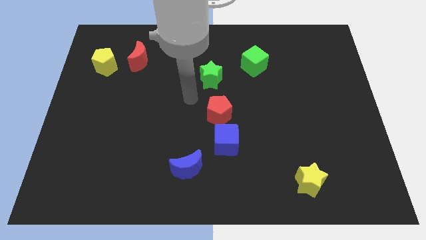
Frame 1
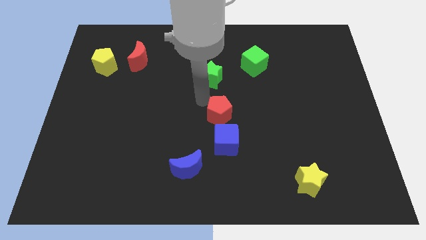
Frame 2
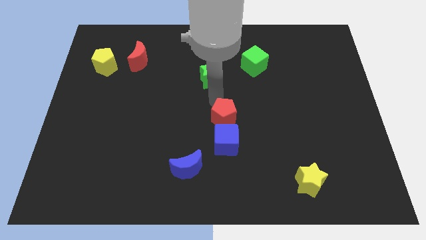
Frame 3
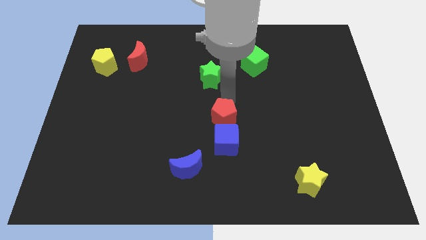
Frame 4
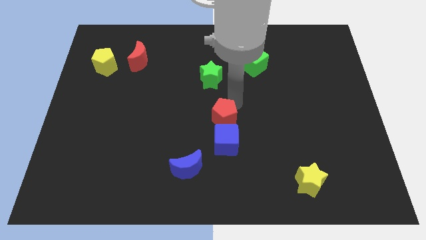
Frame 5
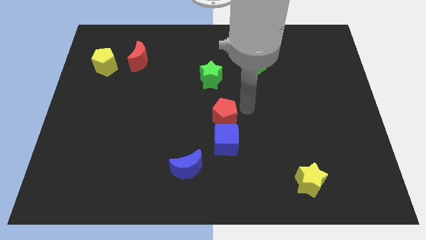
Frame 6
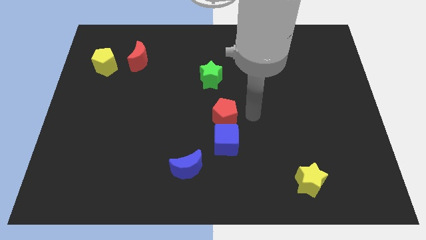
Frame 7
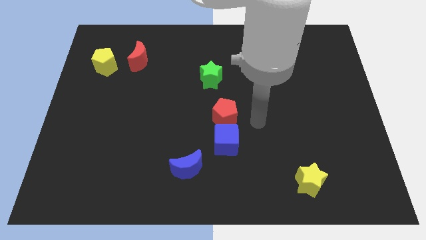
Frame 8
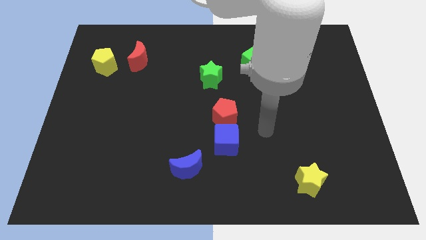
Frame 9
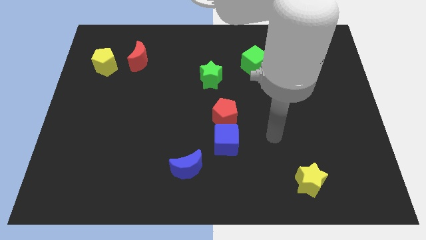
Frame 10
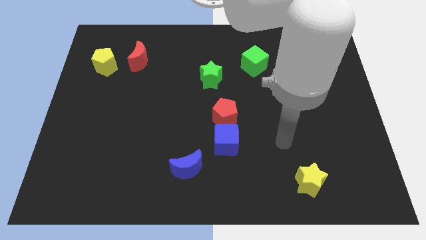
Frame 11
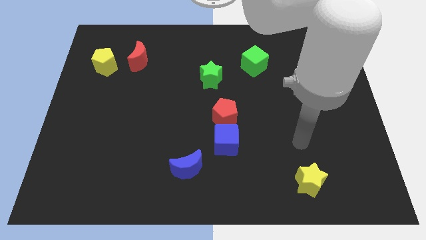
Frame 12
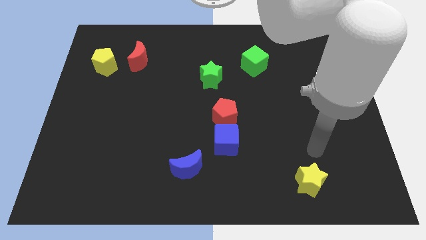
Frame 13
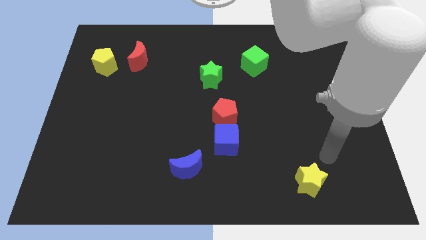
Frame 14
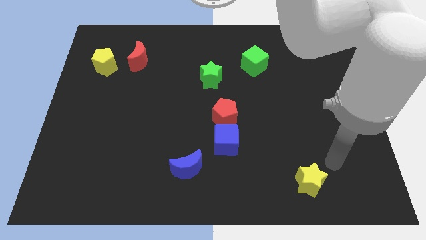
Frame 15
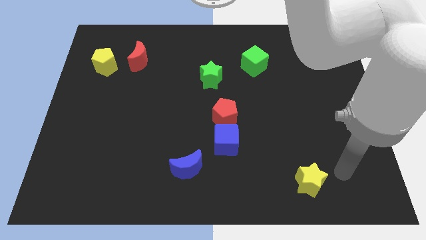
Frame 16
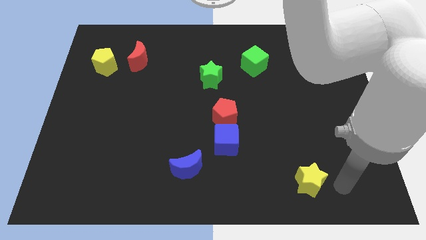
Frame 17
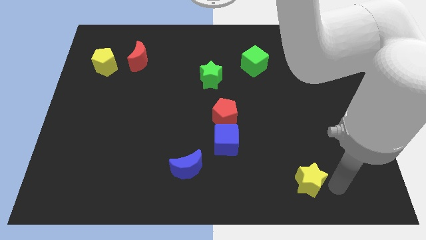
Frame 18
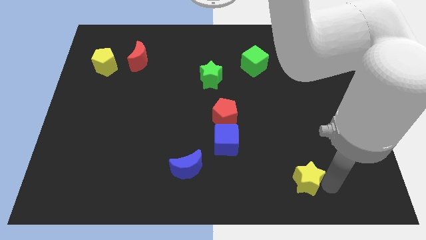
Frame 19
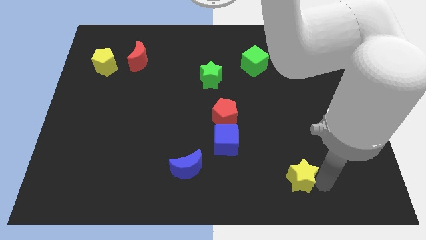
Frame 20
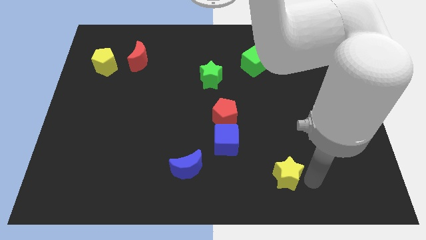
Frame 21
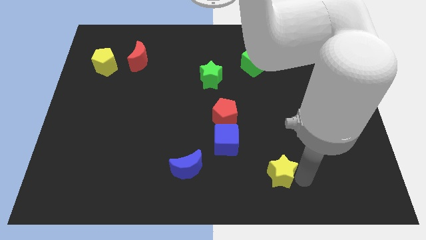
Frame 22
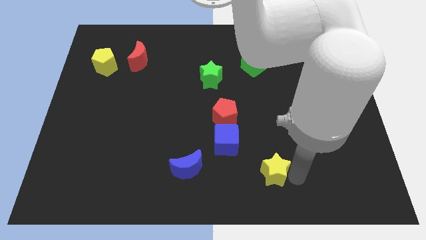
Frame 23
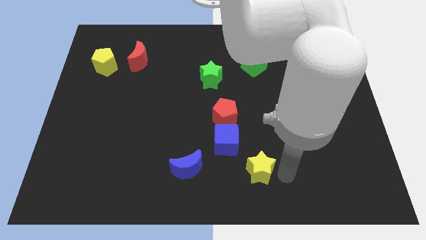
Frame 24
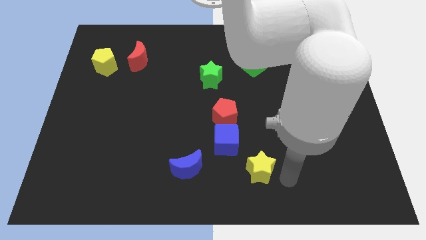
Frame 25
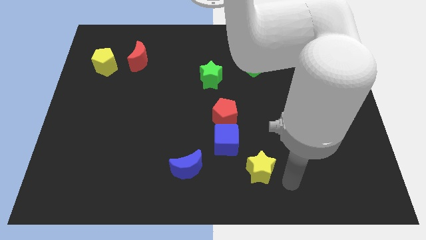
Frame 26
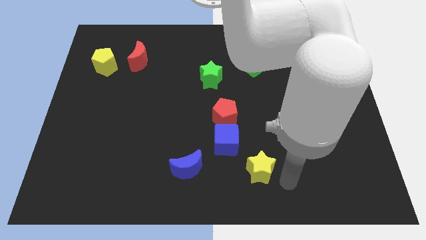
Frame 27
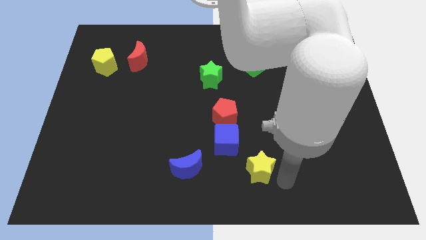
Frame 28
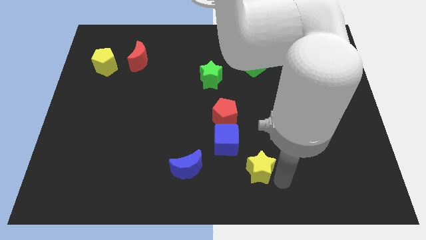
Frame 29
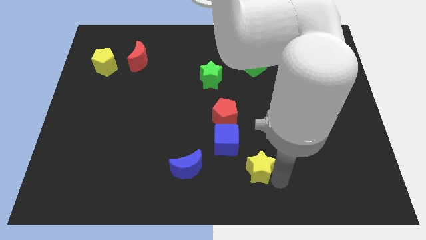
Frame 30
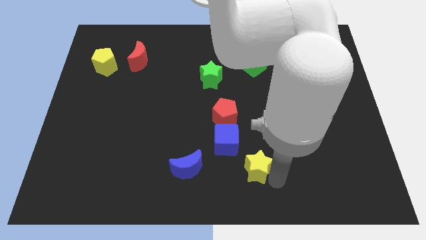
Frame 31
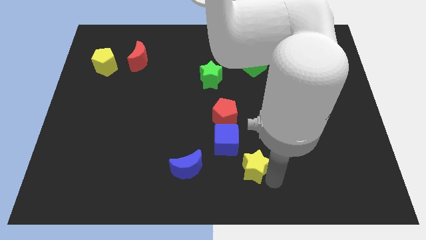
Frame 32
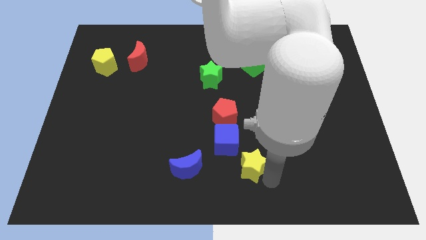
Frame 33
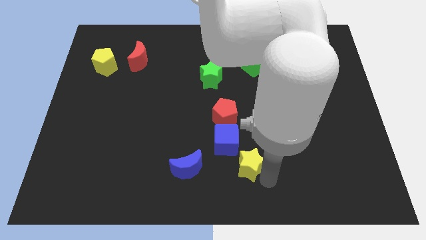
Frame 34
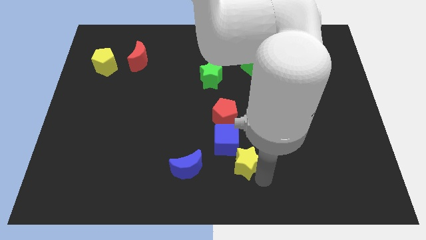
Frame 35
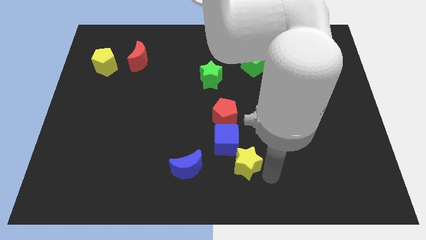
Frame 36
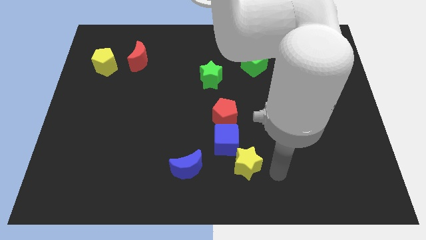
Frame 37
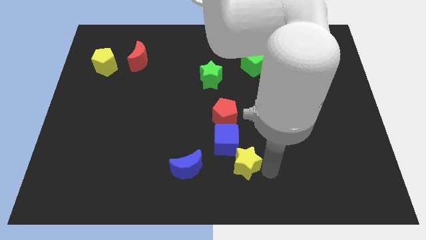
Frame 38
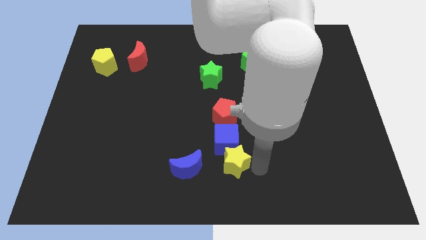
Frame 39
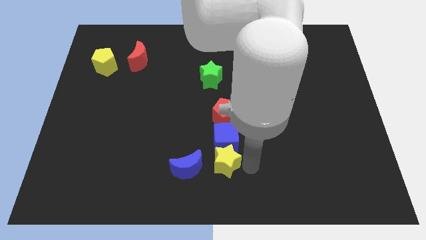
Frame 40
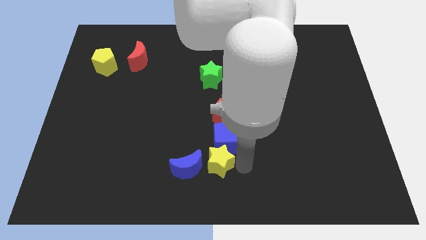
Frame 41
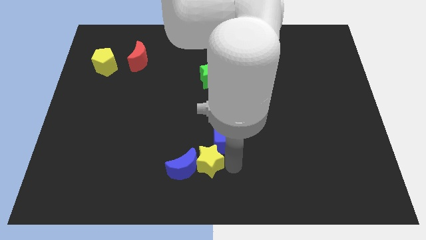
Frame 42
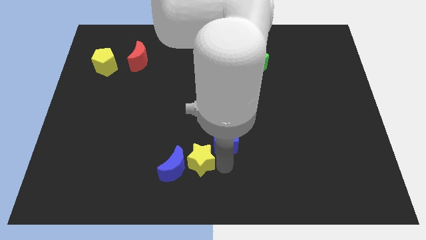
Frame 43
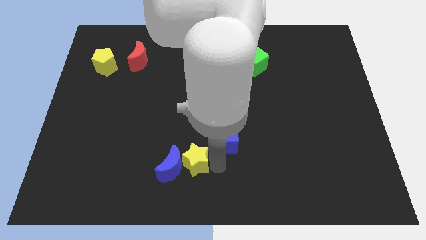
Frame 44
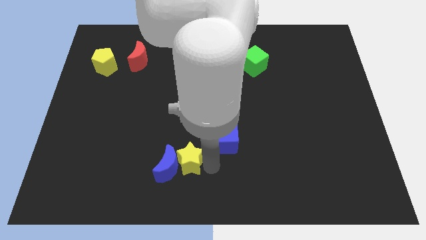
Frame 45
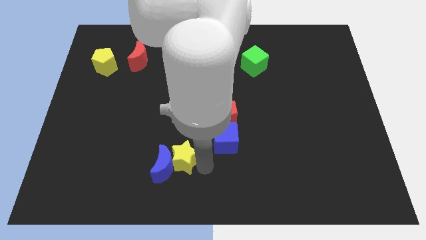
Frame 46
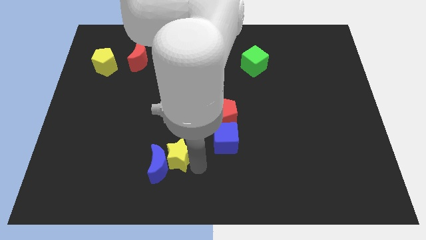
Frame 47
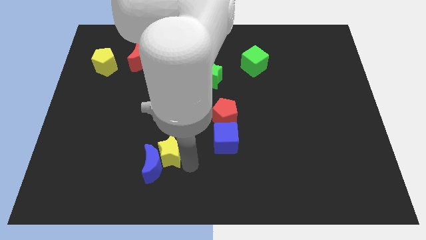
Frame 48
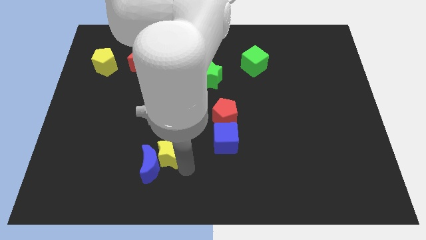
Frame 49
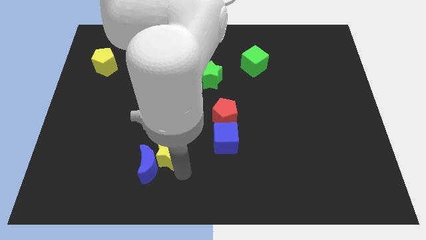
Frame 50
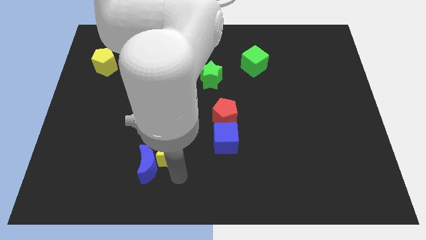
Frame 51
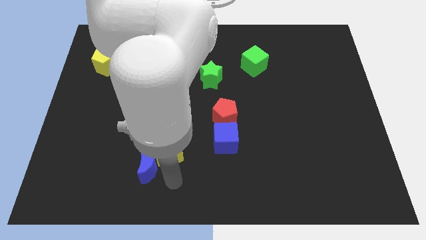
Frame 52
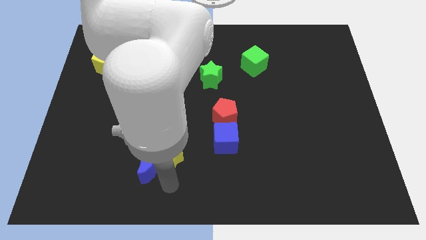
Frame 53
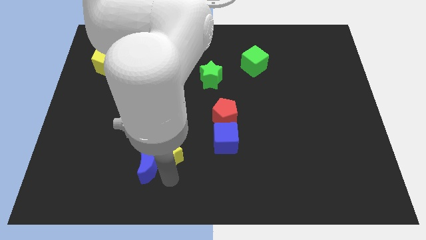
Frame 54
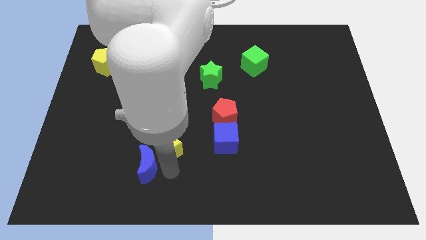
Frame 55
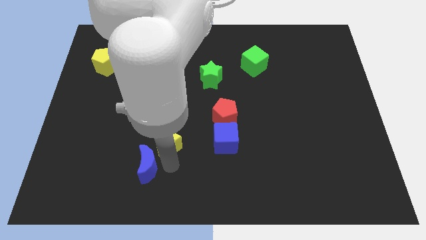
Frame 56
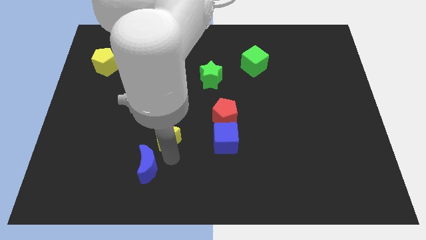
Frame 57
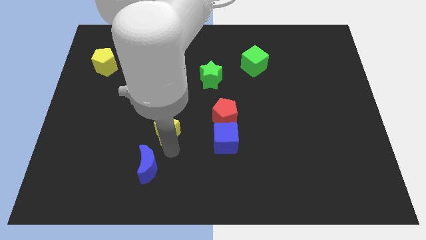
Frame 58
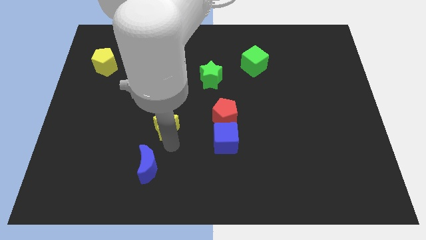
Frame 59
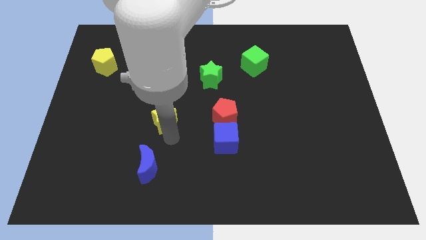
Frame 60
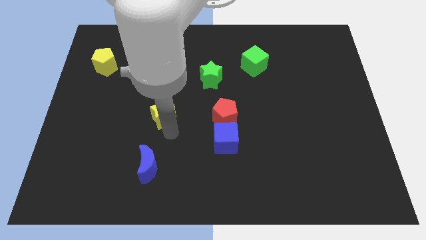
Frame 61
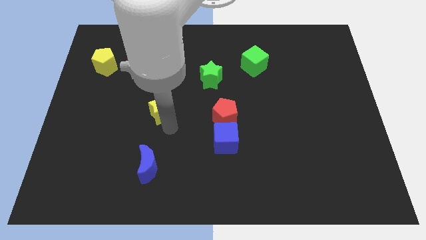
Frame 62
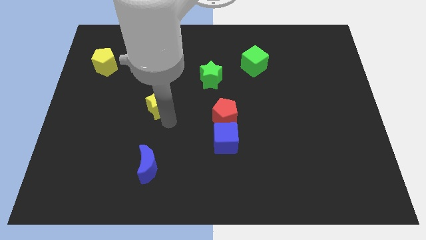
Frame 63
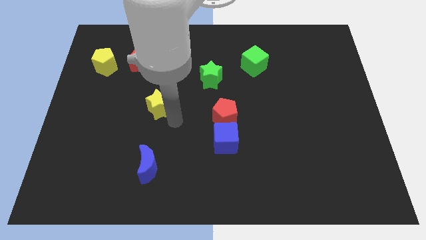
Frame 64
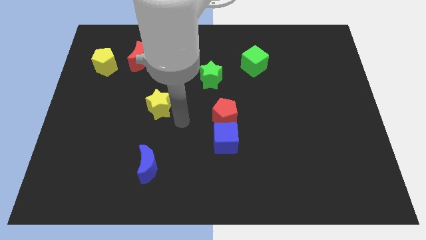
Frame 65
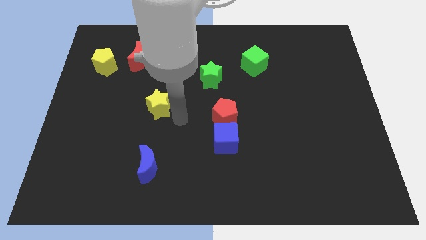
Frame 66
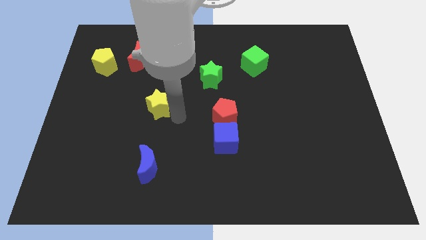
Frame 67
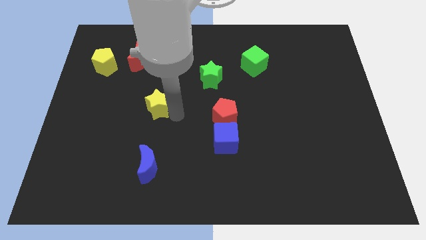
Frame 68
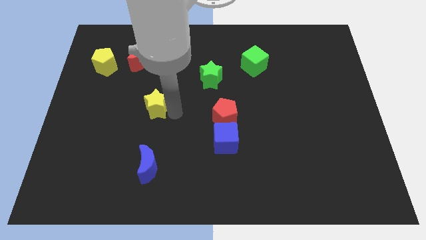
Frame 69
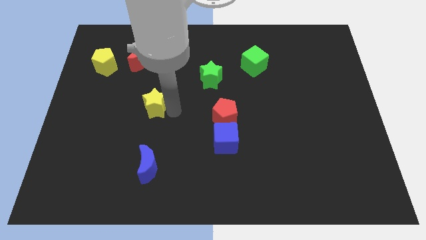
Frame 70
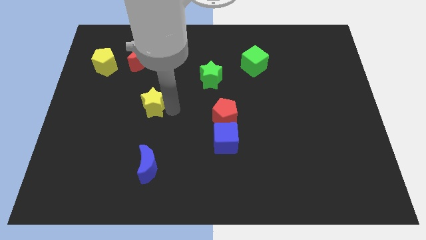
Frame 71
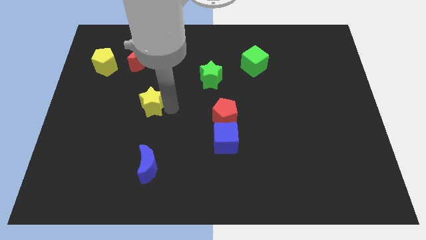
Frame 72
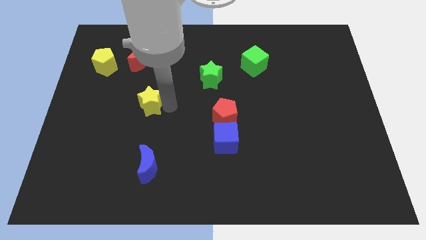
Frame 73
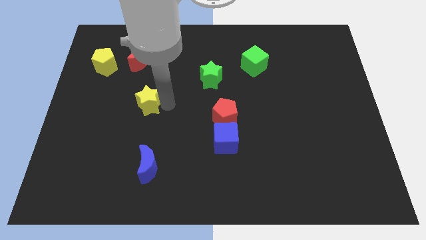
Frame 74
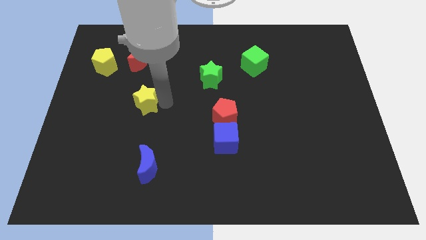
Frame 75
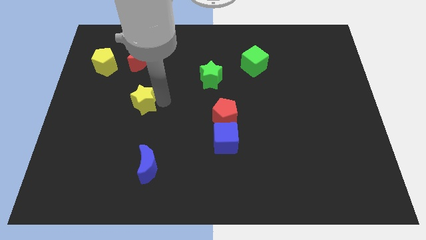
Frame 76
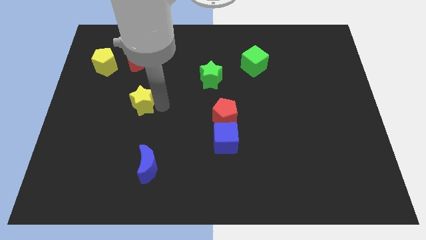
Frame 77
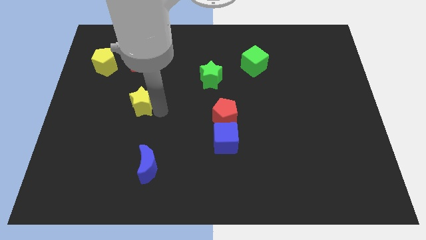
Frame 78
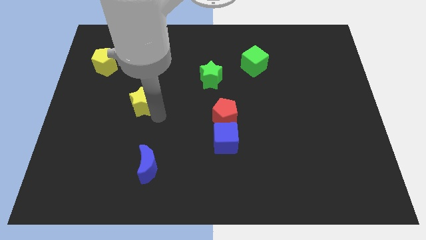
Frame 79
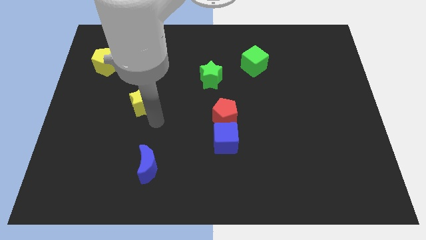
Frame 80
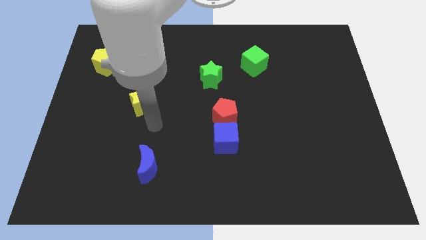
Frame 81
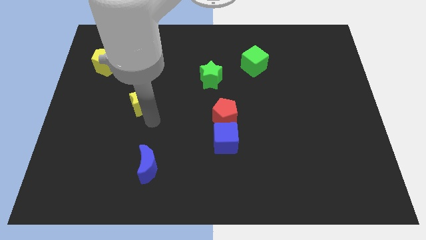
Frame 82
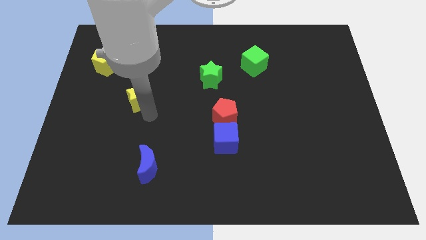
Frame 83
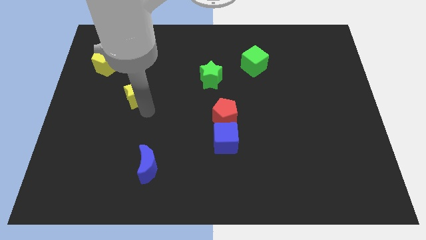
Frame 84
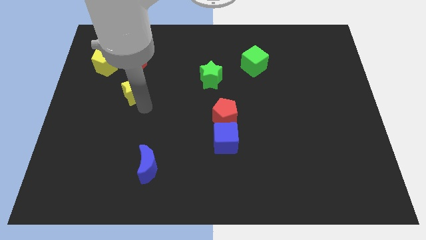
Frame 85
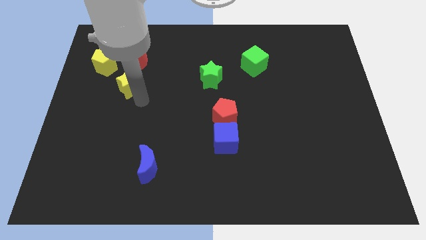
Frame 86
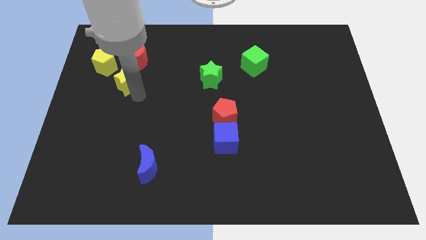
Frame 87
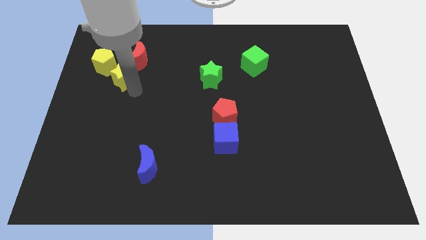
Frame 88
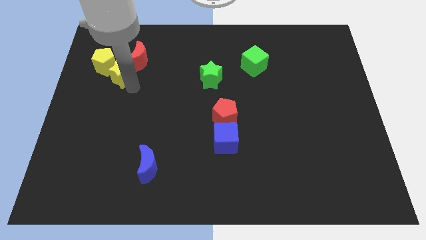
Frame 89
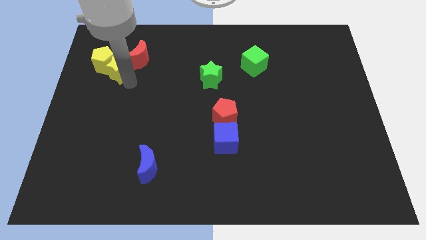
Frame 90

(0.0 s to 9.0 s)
move the yellow star next to the yellow pentagon
